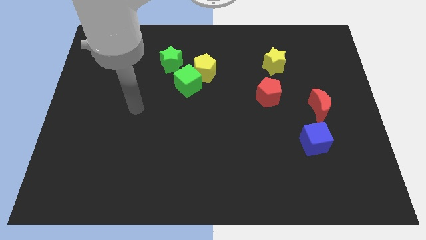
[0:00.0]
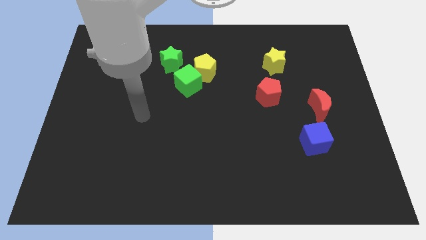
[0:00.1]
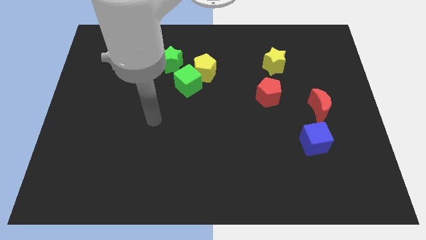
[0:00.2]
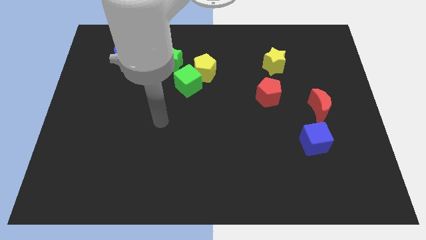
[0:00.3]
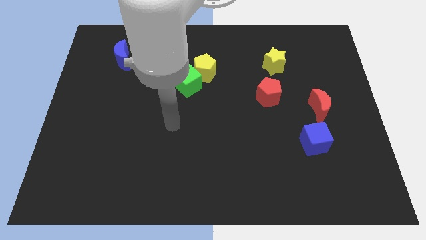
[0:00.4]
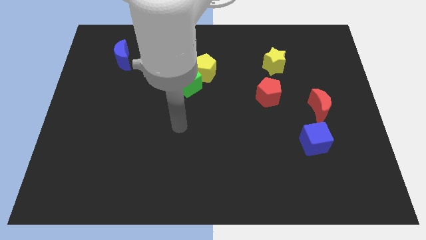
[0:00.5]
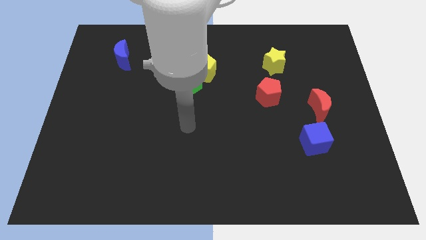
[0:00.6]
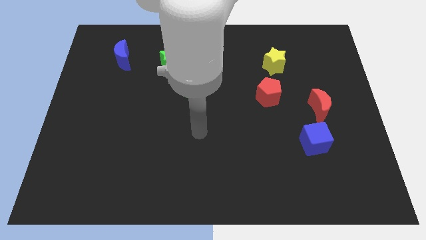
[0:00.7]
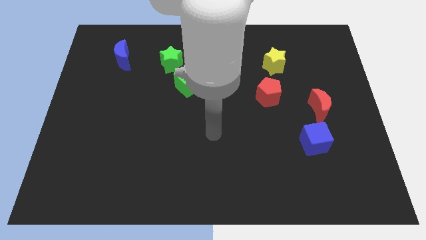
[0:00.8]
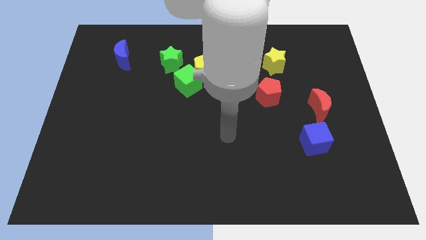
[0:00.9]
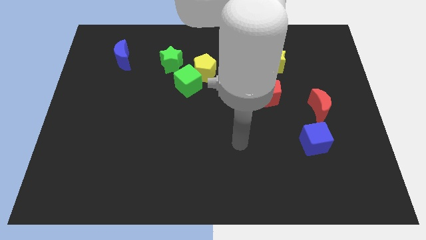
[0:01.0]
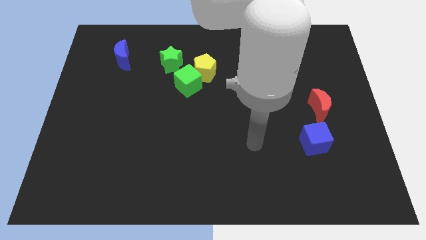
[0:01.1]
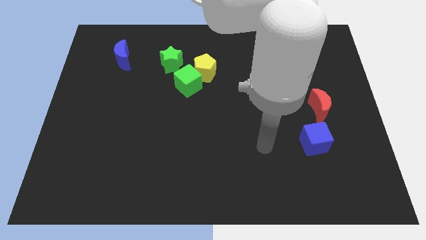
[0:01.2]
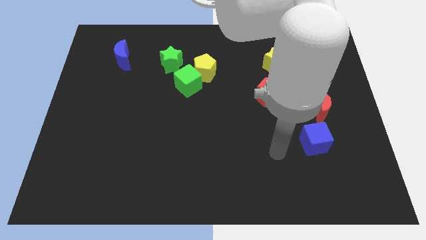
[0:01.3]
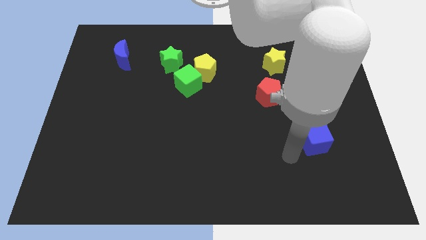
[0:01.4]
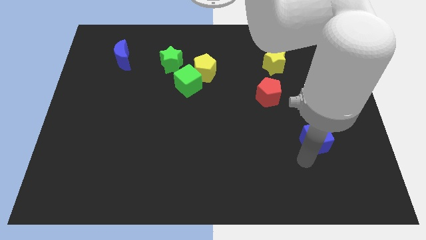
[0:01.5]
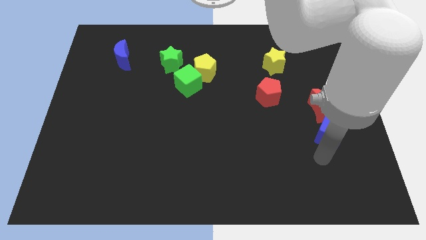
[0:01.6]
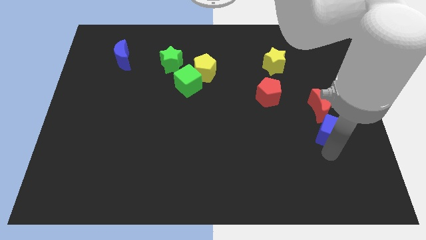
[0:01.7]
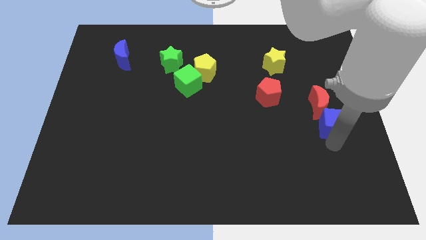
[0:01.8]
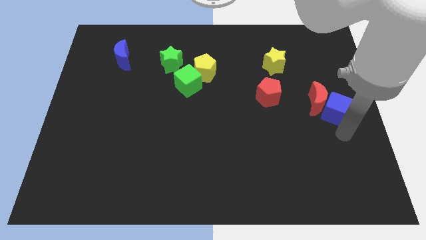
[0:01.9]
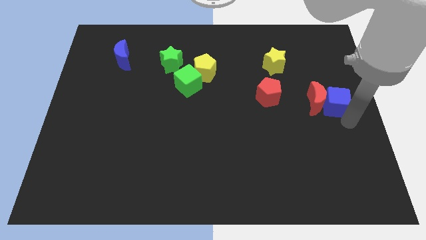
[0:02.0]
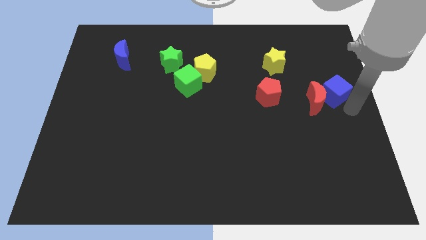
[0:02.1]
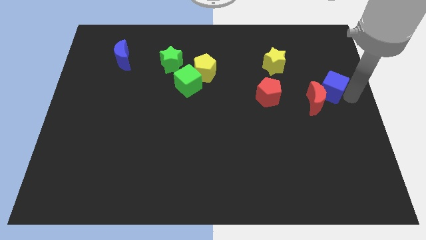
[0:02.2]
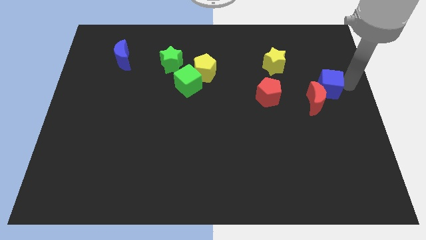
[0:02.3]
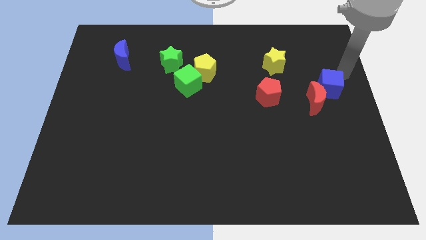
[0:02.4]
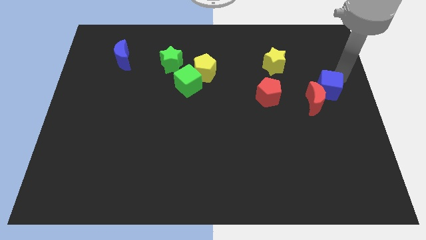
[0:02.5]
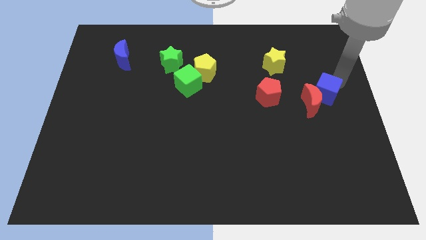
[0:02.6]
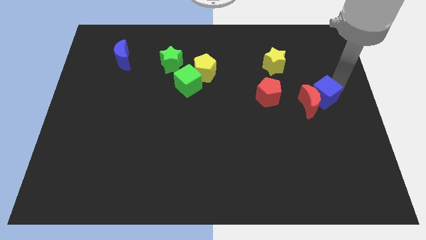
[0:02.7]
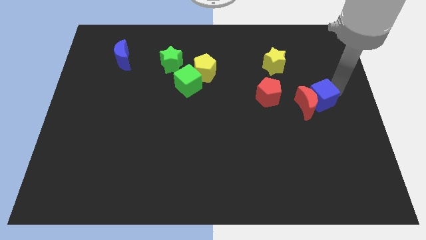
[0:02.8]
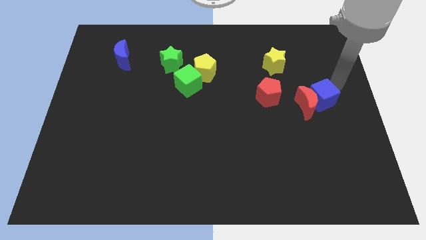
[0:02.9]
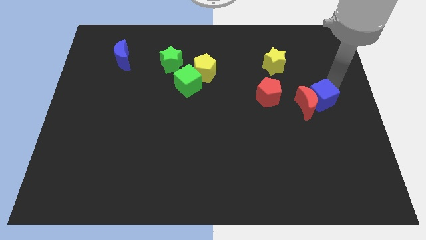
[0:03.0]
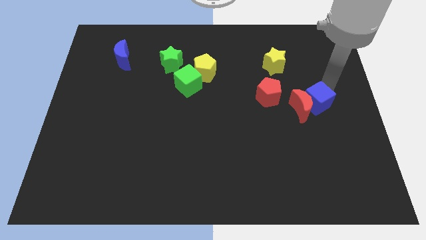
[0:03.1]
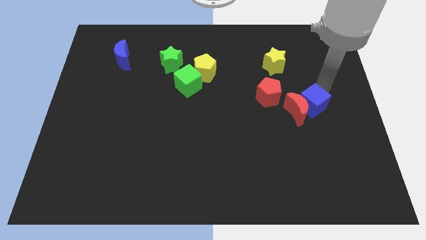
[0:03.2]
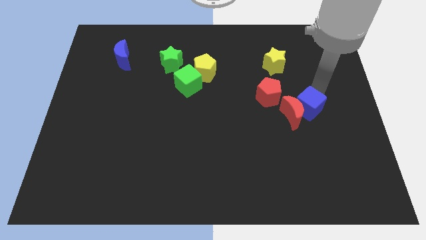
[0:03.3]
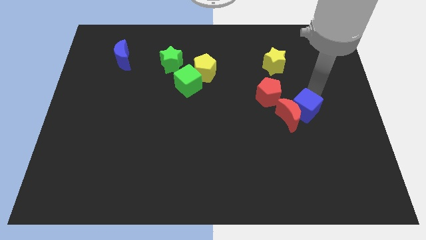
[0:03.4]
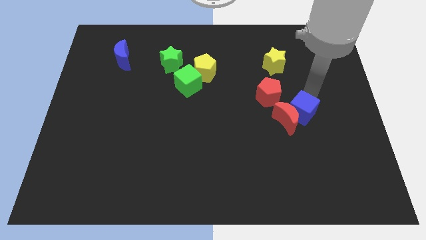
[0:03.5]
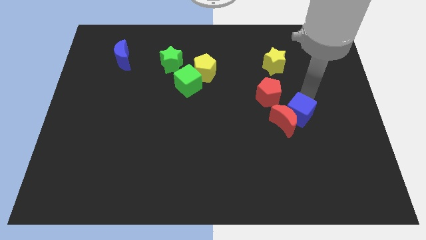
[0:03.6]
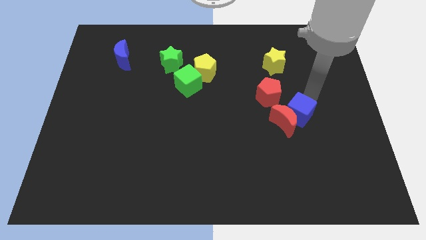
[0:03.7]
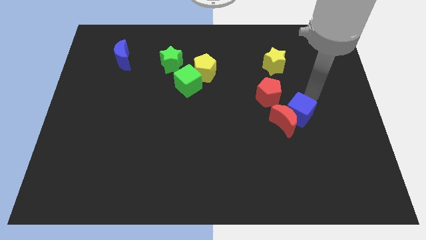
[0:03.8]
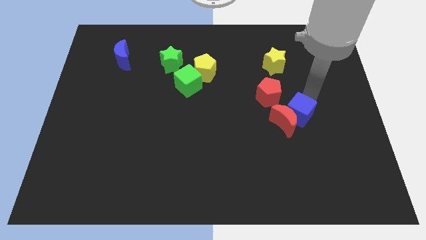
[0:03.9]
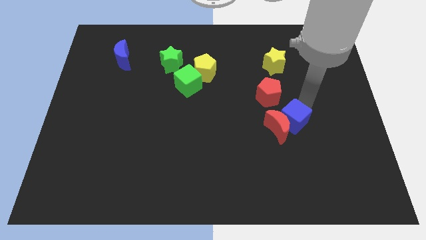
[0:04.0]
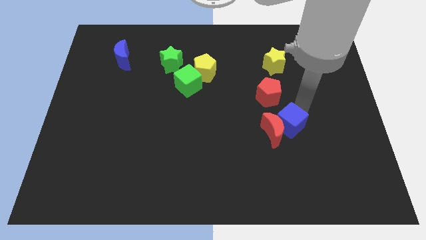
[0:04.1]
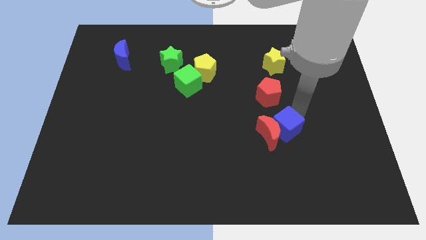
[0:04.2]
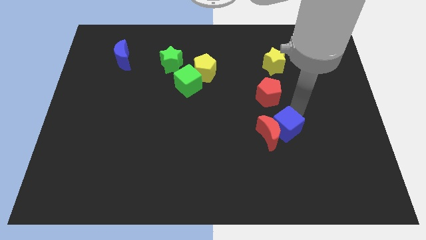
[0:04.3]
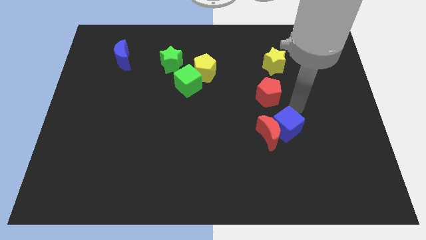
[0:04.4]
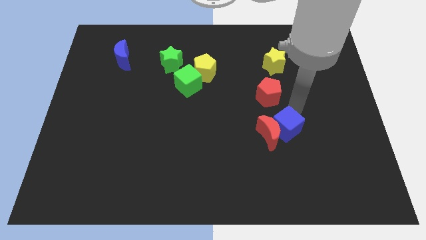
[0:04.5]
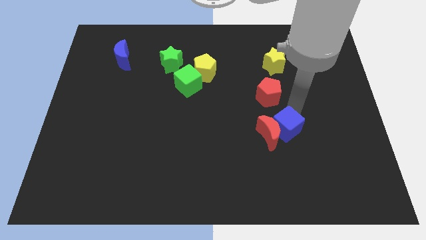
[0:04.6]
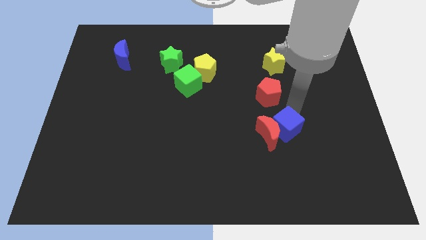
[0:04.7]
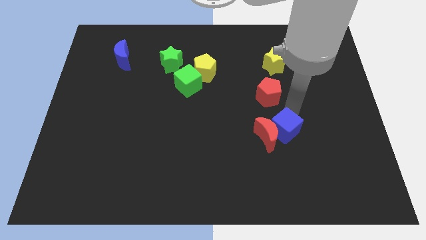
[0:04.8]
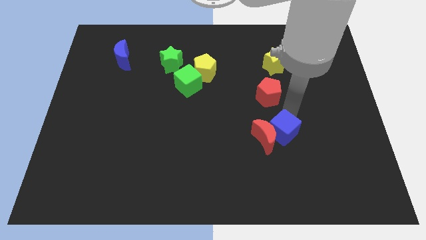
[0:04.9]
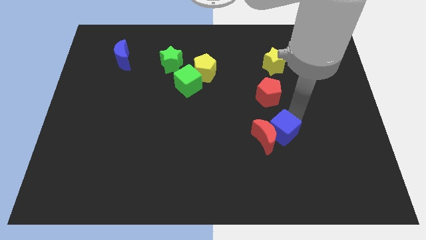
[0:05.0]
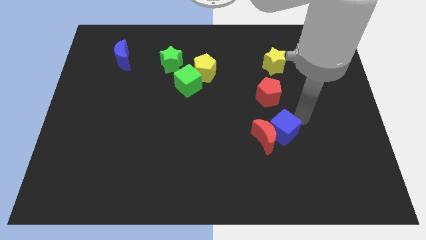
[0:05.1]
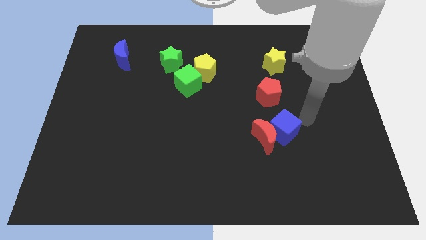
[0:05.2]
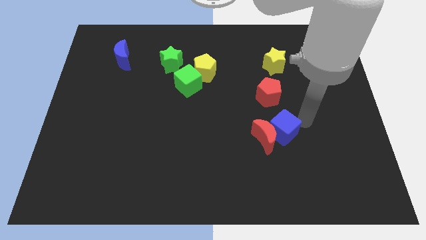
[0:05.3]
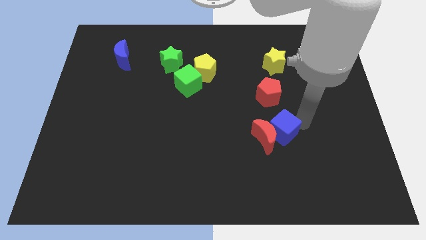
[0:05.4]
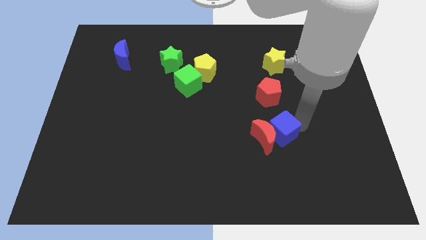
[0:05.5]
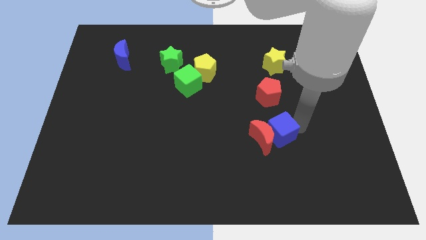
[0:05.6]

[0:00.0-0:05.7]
slightly move the blue cube to the left

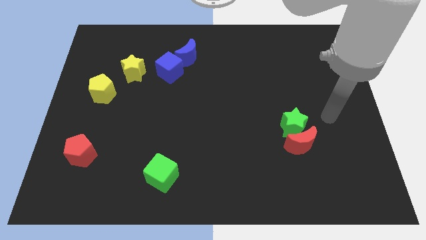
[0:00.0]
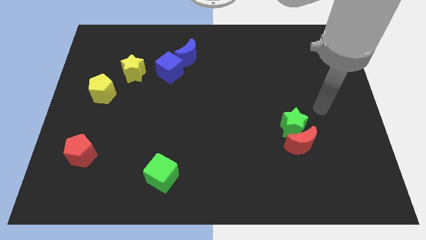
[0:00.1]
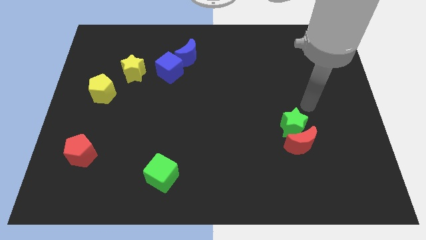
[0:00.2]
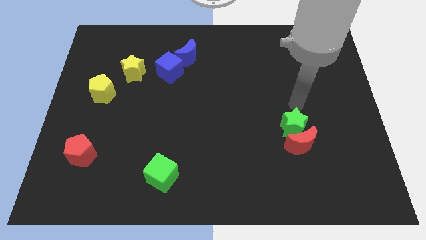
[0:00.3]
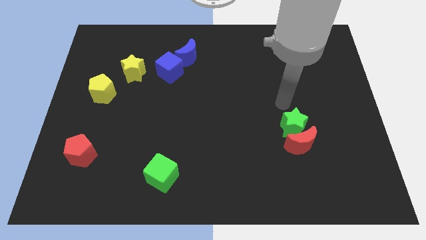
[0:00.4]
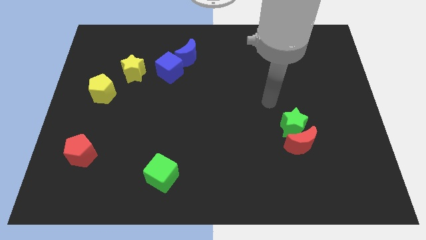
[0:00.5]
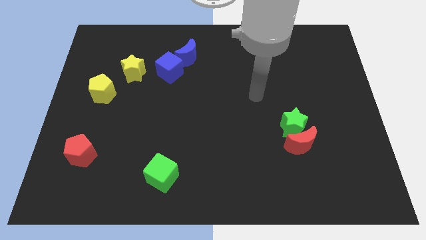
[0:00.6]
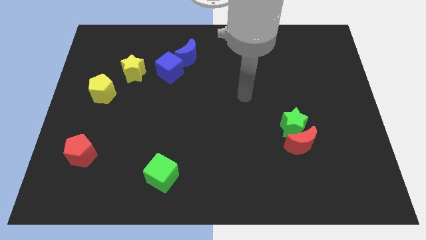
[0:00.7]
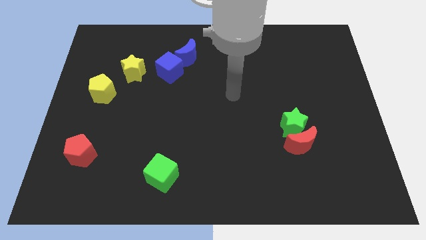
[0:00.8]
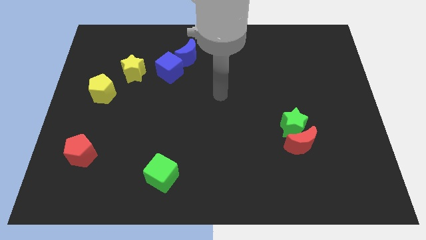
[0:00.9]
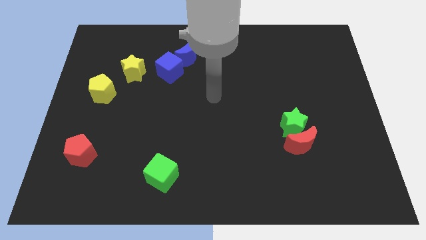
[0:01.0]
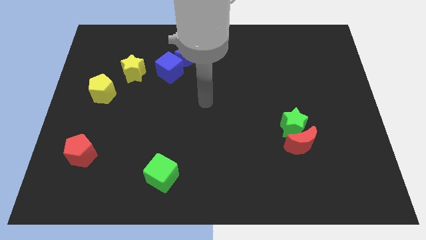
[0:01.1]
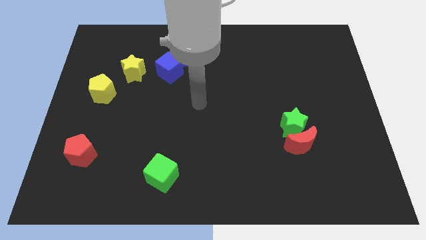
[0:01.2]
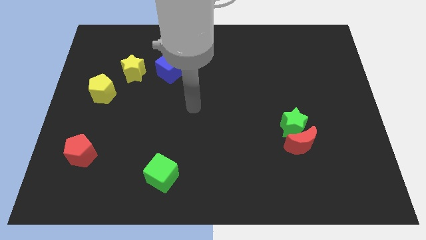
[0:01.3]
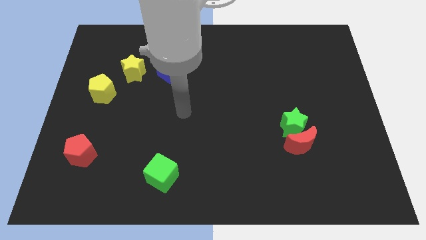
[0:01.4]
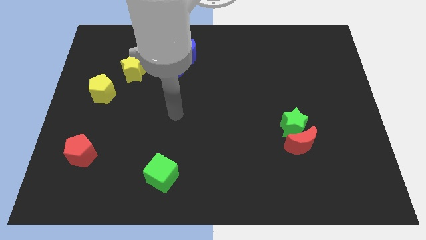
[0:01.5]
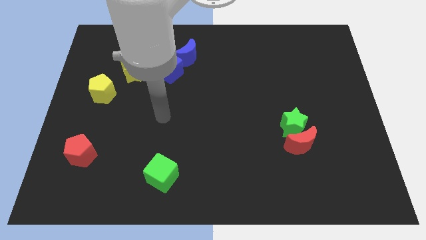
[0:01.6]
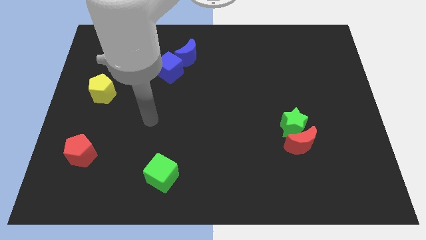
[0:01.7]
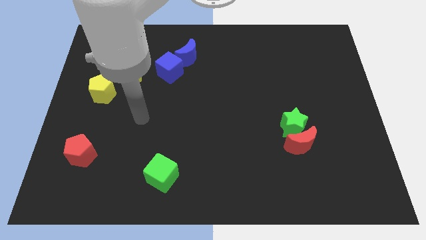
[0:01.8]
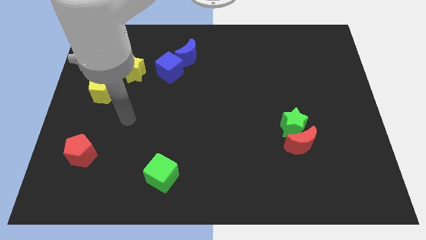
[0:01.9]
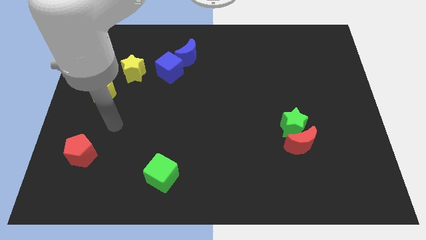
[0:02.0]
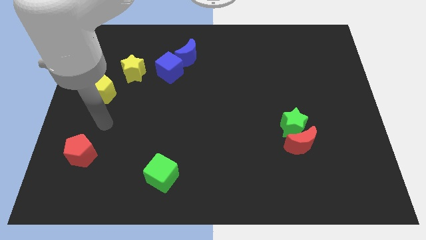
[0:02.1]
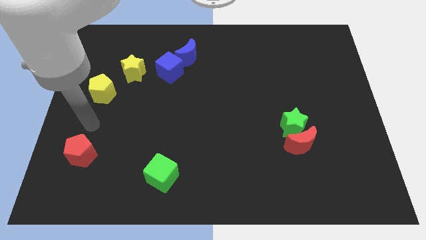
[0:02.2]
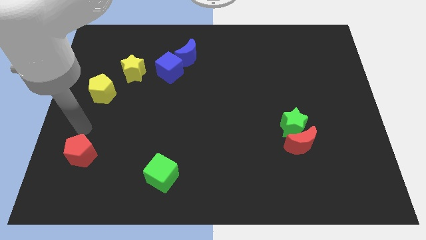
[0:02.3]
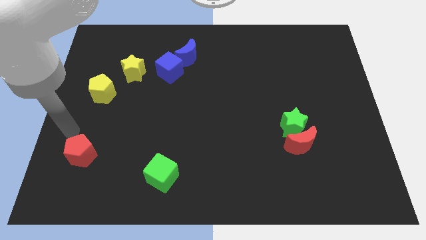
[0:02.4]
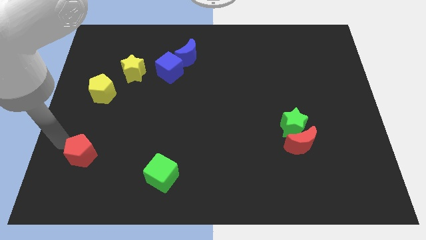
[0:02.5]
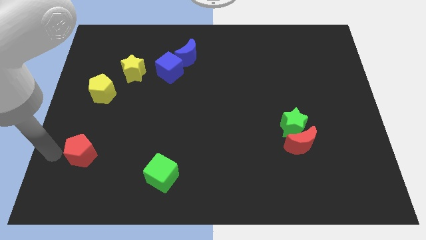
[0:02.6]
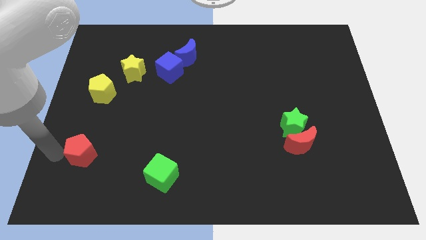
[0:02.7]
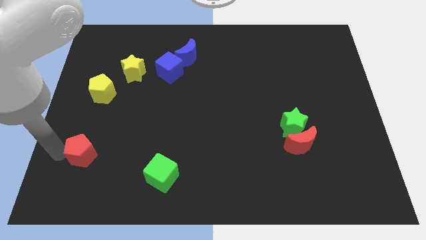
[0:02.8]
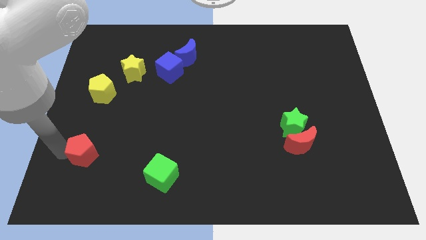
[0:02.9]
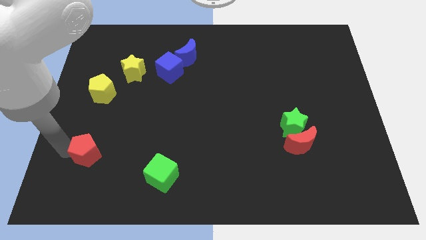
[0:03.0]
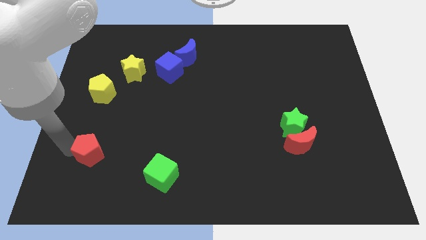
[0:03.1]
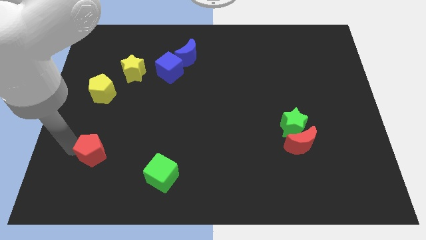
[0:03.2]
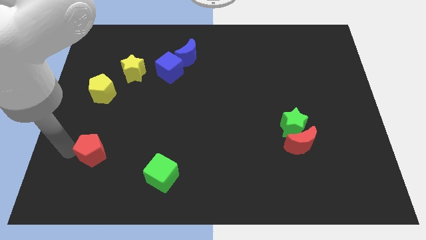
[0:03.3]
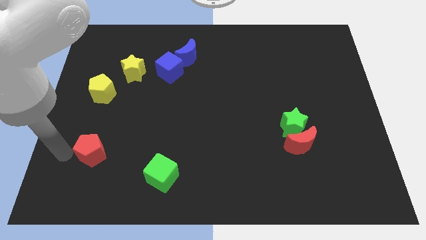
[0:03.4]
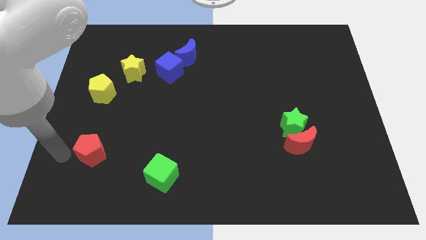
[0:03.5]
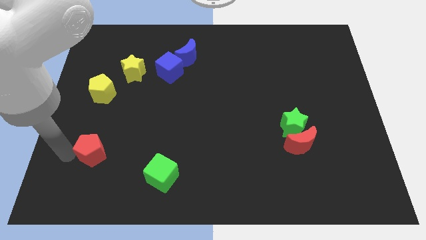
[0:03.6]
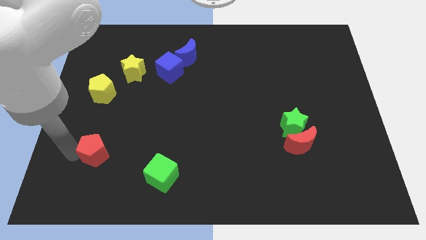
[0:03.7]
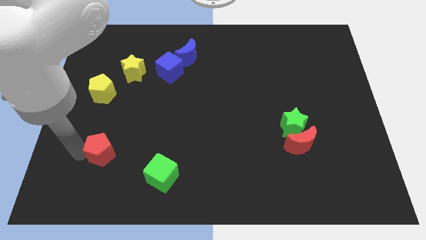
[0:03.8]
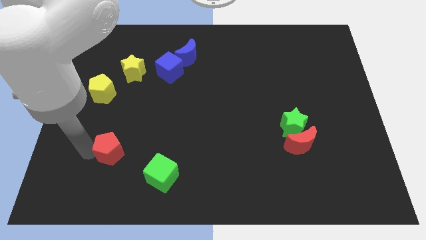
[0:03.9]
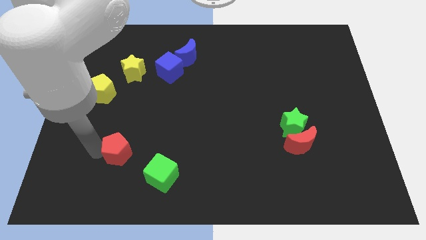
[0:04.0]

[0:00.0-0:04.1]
move the red pentagon right a bit
